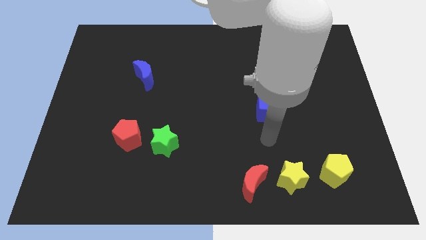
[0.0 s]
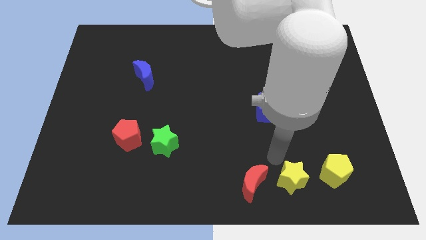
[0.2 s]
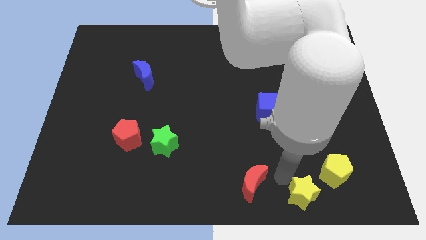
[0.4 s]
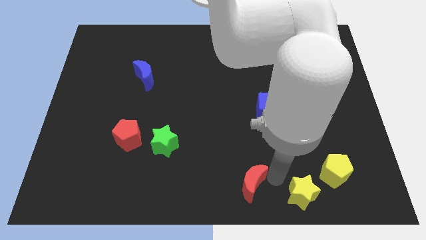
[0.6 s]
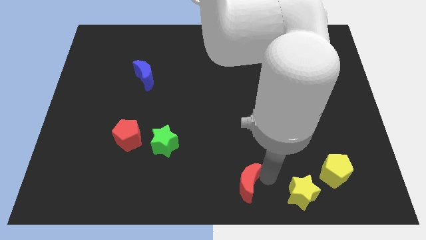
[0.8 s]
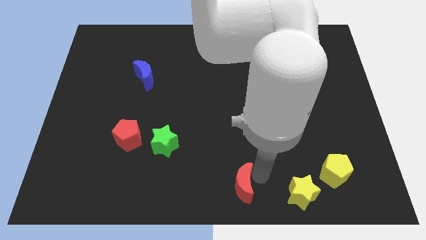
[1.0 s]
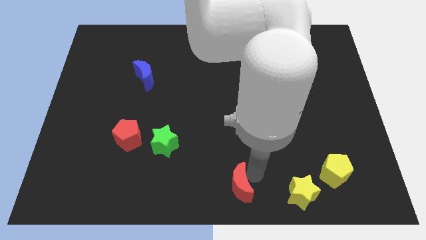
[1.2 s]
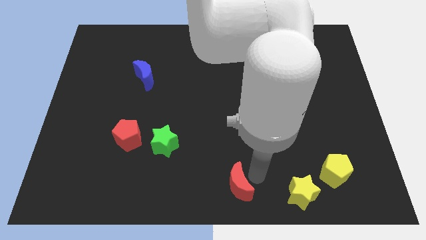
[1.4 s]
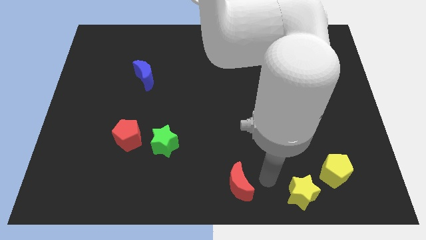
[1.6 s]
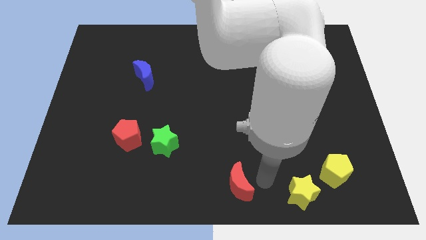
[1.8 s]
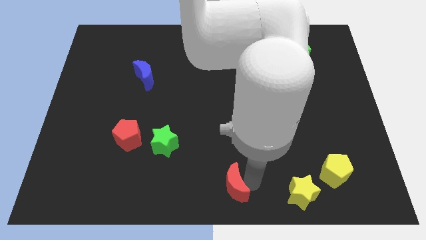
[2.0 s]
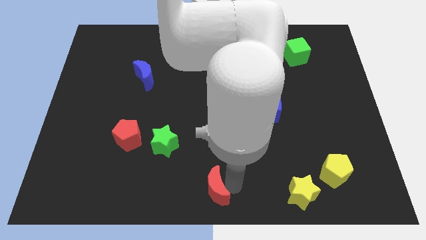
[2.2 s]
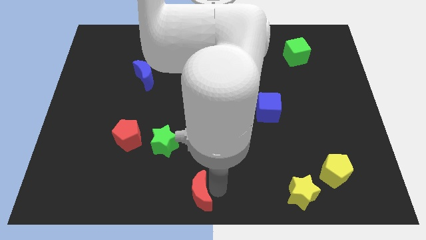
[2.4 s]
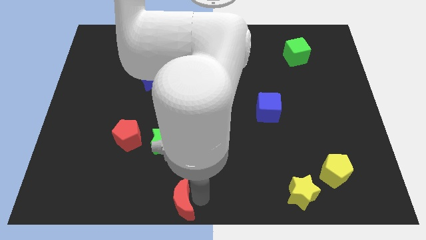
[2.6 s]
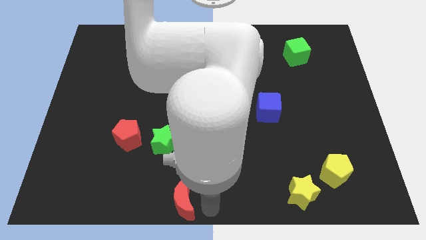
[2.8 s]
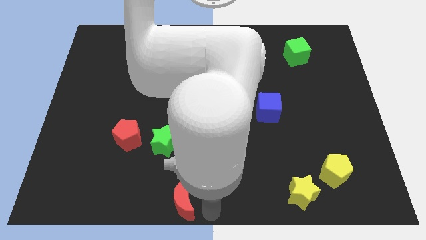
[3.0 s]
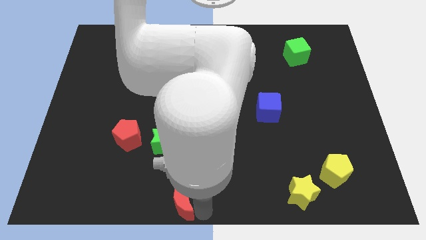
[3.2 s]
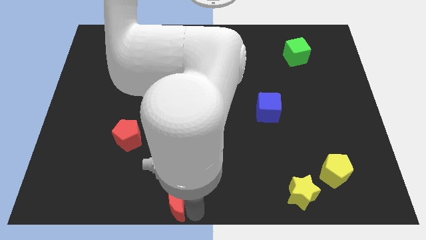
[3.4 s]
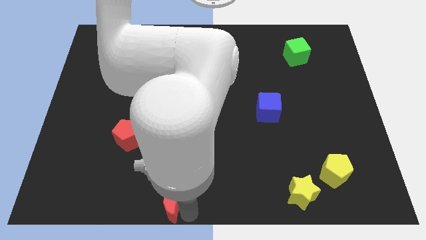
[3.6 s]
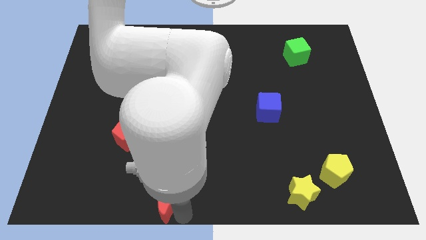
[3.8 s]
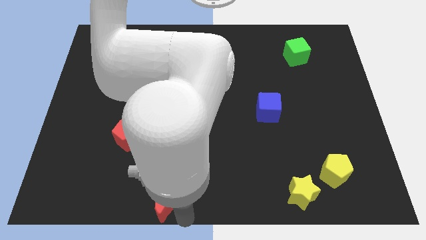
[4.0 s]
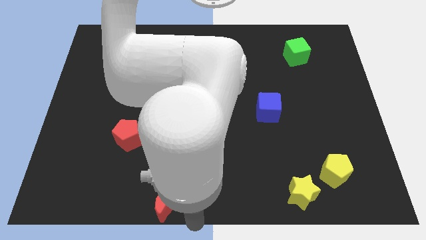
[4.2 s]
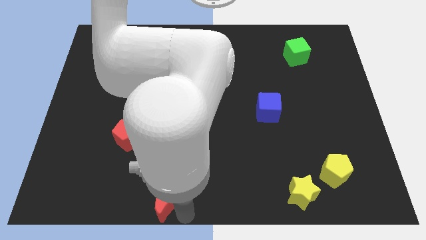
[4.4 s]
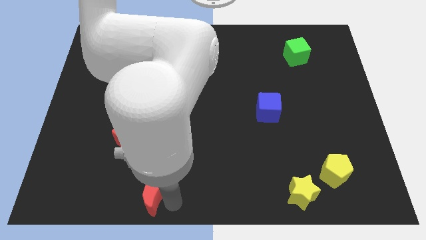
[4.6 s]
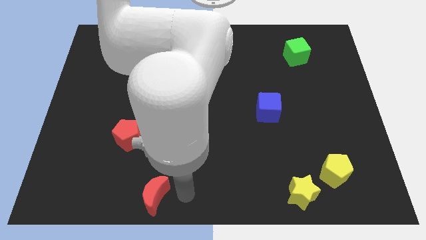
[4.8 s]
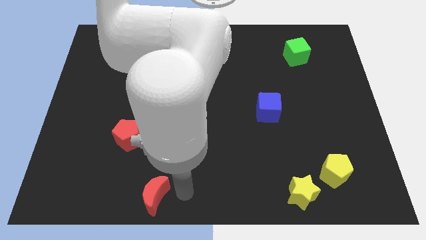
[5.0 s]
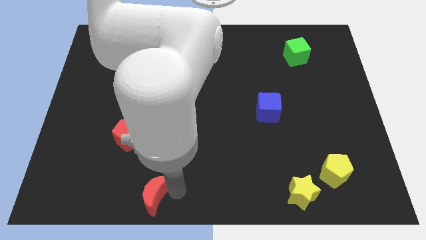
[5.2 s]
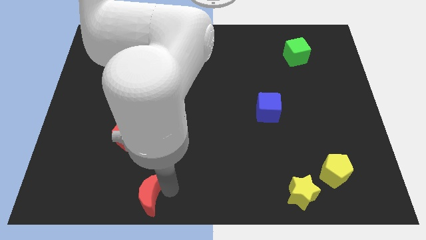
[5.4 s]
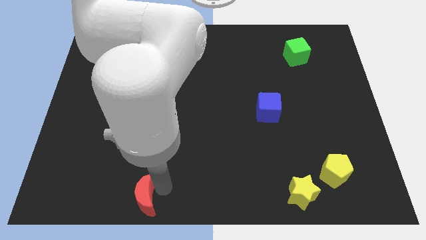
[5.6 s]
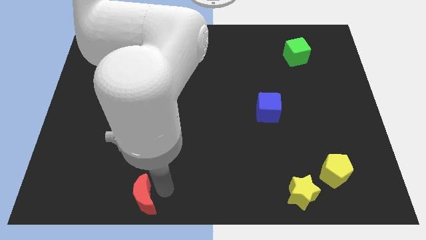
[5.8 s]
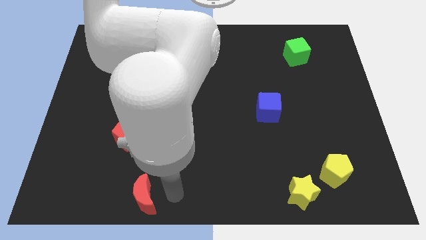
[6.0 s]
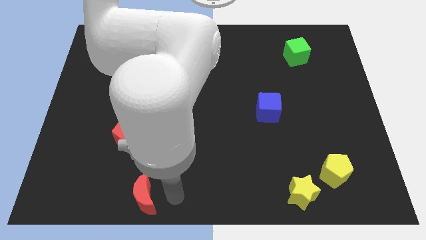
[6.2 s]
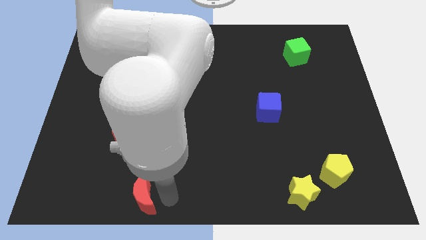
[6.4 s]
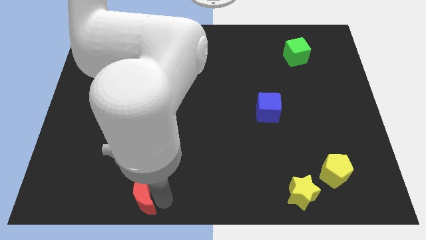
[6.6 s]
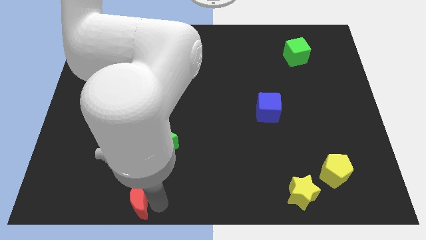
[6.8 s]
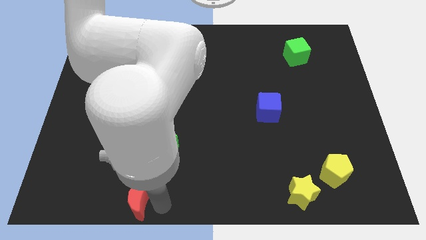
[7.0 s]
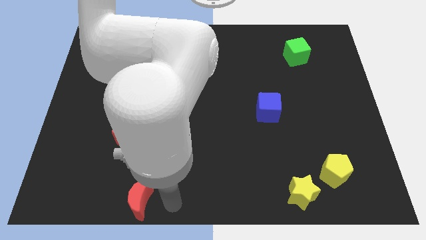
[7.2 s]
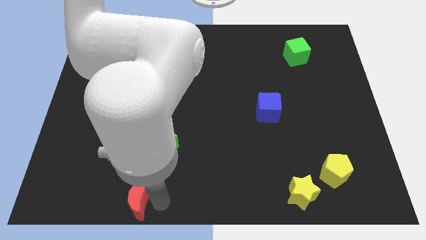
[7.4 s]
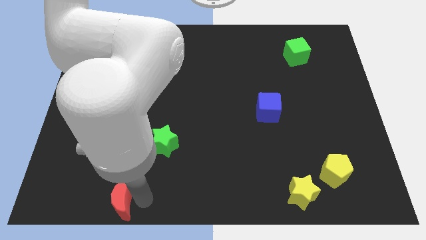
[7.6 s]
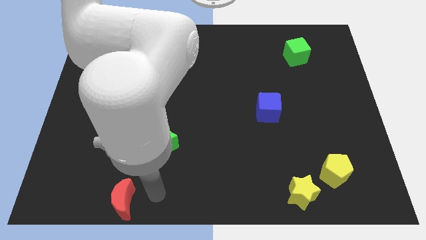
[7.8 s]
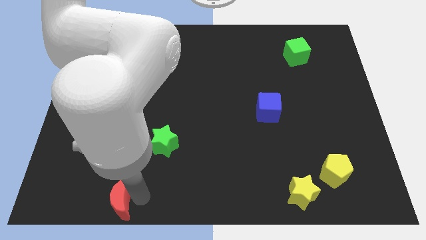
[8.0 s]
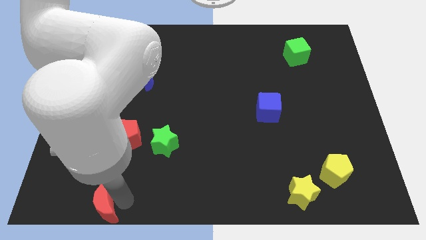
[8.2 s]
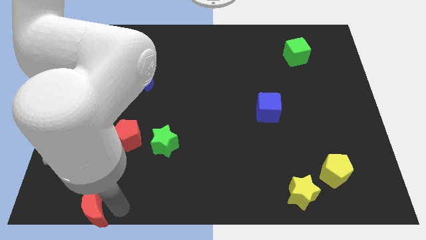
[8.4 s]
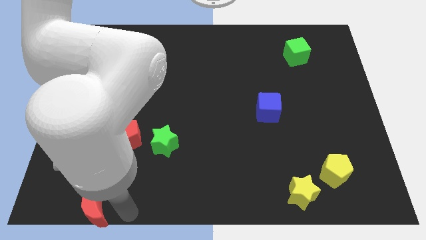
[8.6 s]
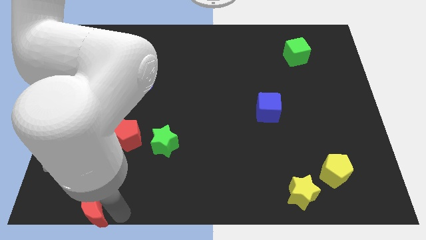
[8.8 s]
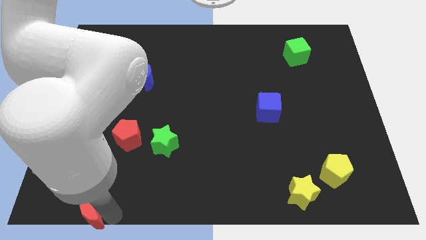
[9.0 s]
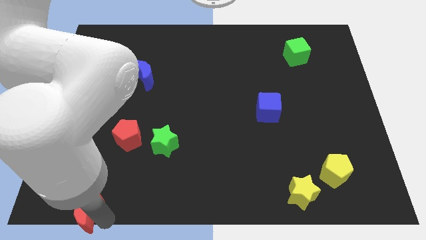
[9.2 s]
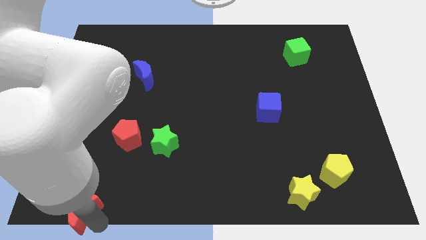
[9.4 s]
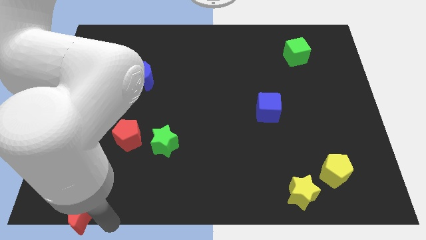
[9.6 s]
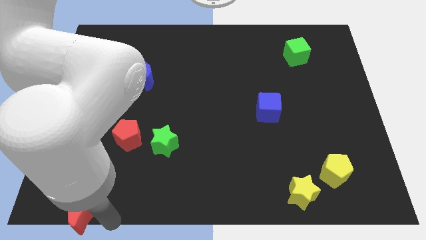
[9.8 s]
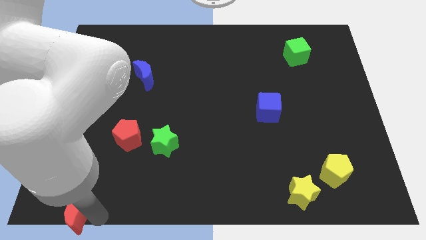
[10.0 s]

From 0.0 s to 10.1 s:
slide the red moon to the bottom left

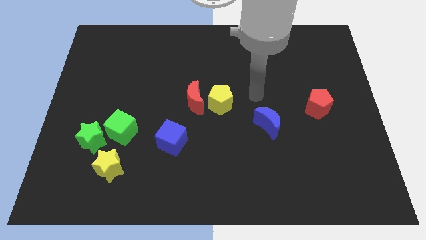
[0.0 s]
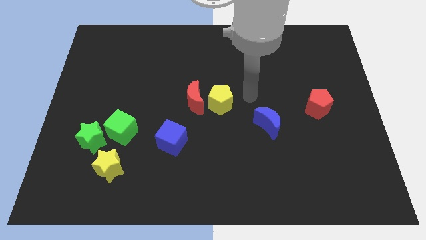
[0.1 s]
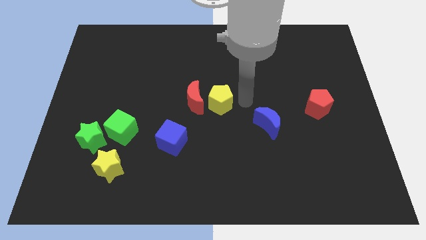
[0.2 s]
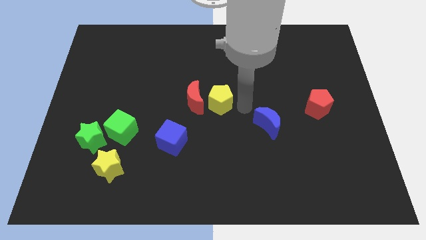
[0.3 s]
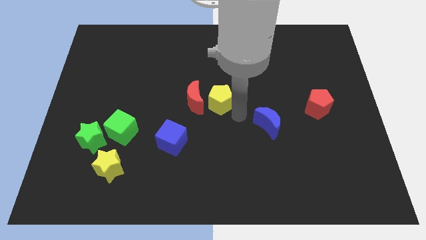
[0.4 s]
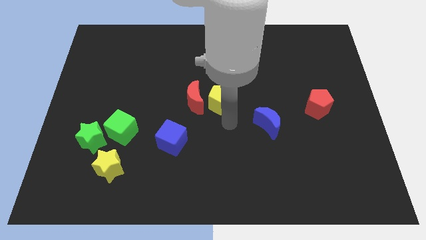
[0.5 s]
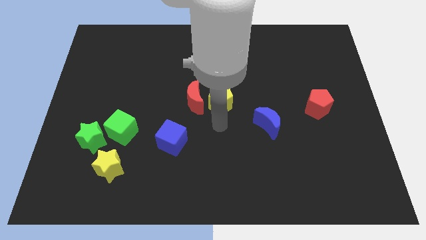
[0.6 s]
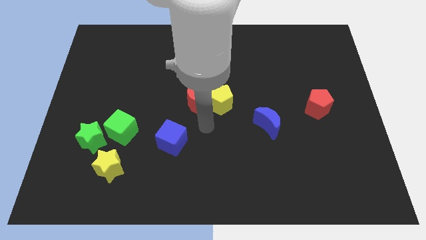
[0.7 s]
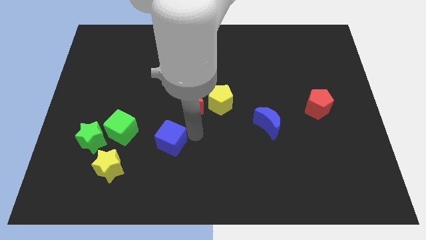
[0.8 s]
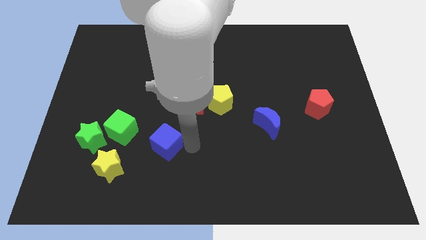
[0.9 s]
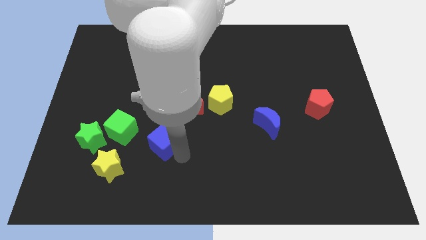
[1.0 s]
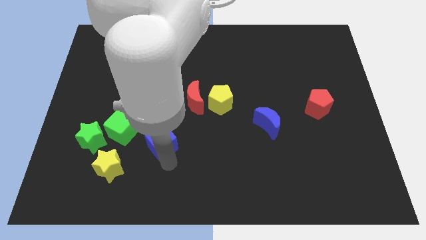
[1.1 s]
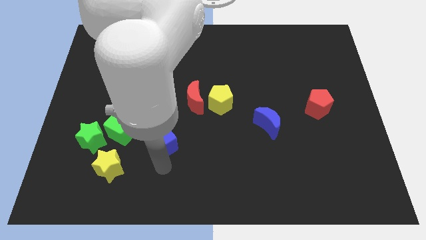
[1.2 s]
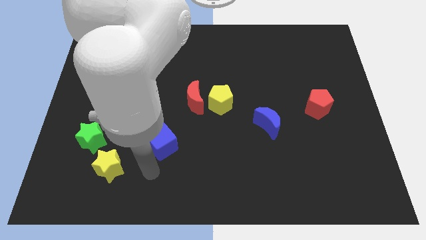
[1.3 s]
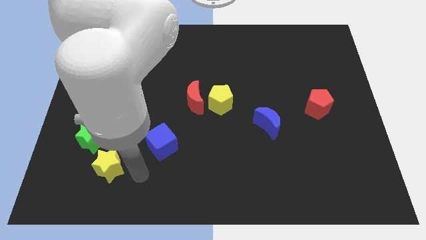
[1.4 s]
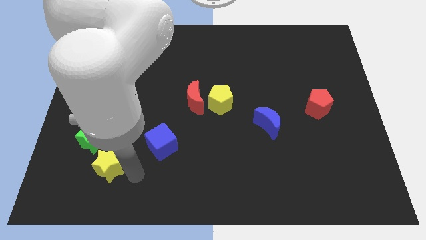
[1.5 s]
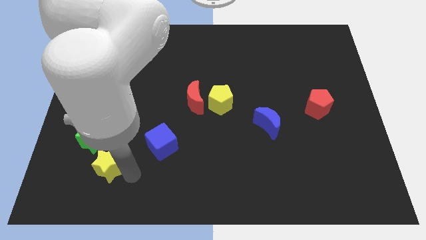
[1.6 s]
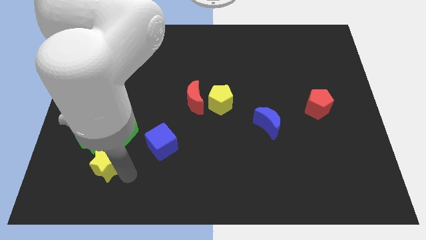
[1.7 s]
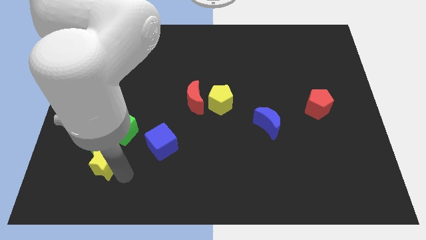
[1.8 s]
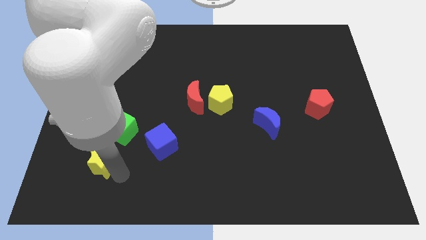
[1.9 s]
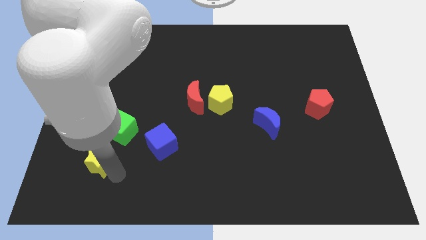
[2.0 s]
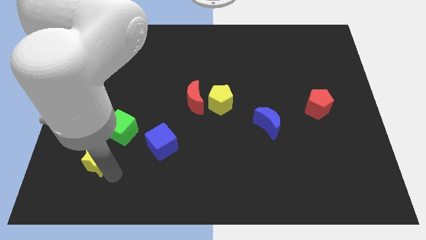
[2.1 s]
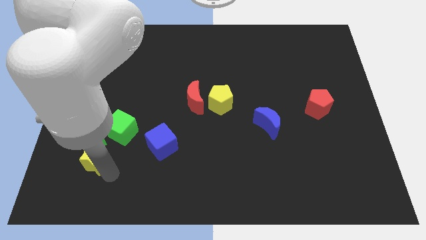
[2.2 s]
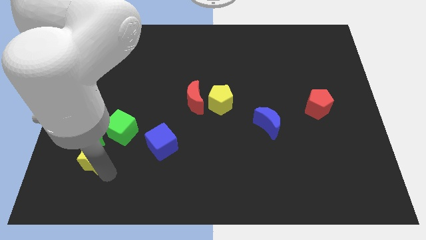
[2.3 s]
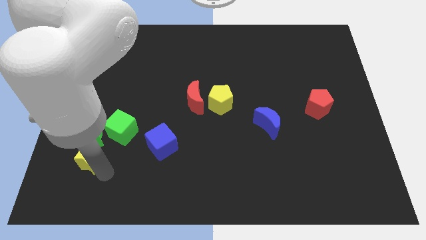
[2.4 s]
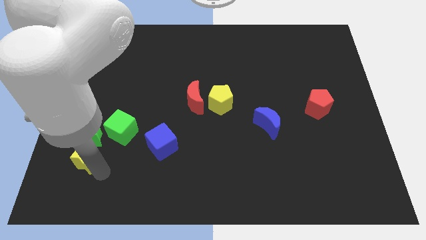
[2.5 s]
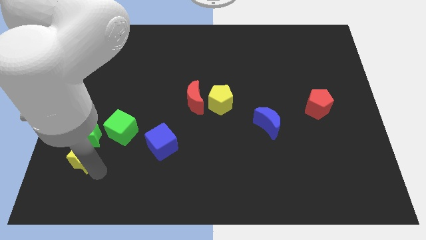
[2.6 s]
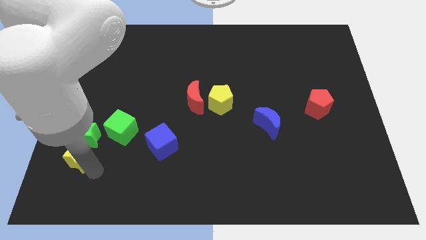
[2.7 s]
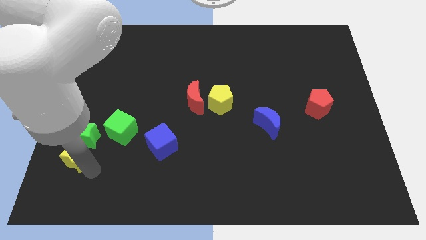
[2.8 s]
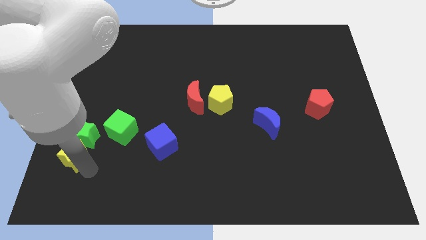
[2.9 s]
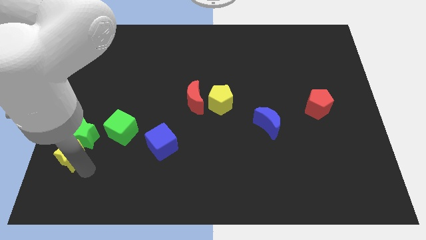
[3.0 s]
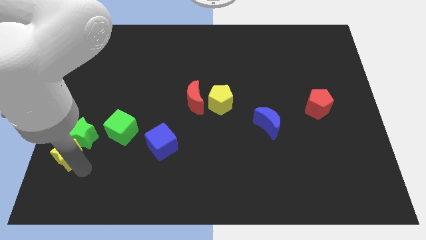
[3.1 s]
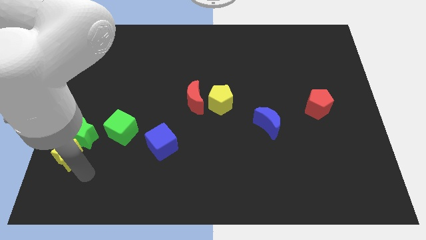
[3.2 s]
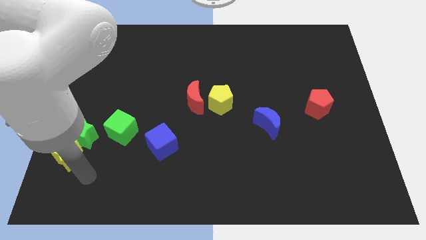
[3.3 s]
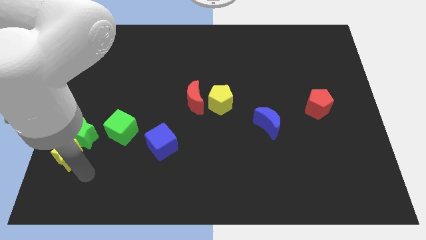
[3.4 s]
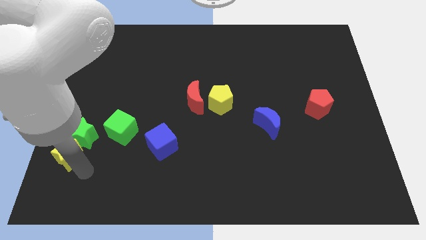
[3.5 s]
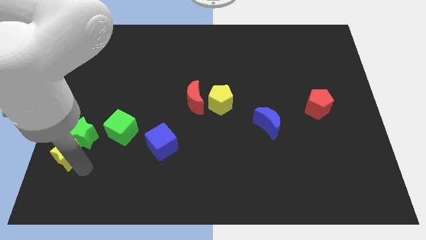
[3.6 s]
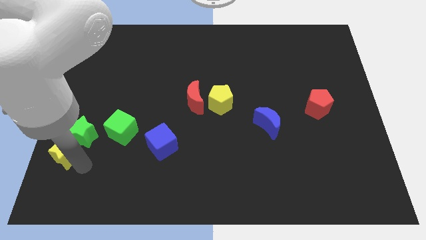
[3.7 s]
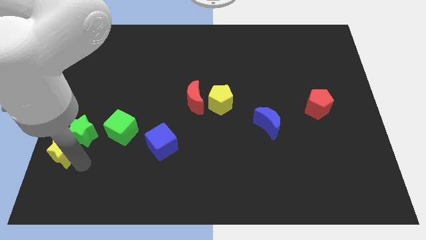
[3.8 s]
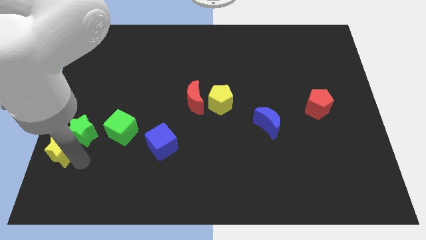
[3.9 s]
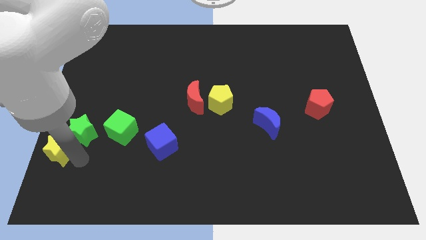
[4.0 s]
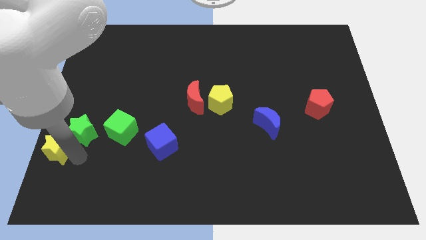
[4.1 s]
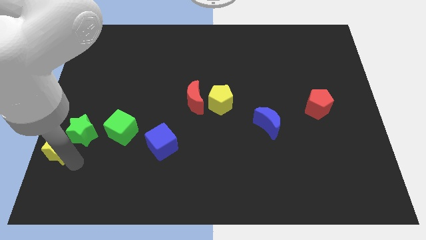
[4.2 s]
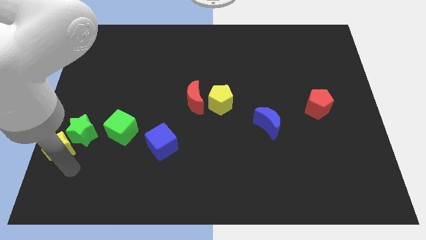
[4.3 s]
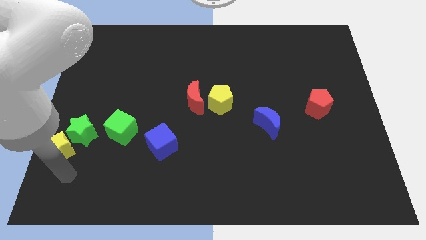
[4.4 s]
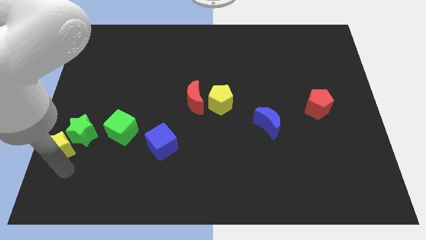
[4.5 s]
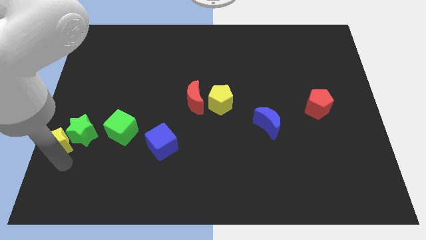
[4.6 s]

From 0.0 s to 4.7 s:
push the yellow star to the left side of the board
